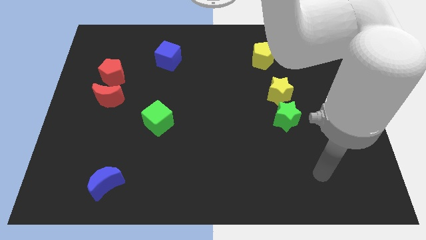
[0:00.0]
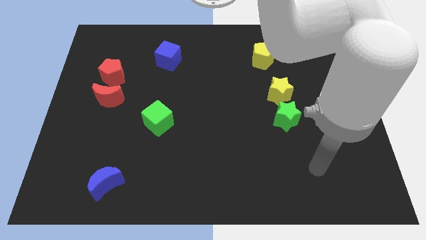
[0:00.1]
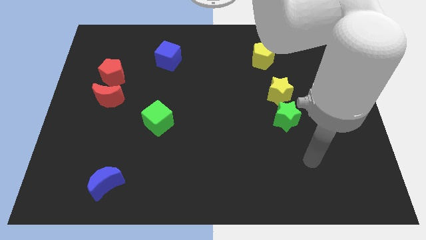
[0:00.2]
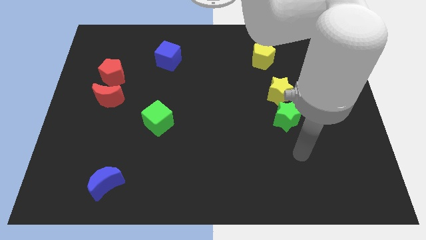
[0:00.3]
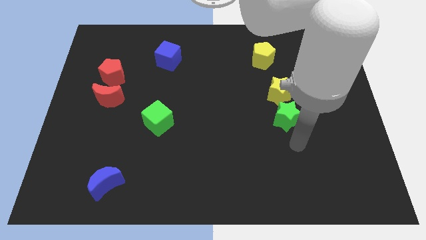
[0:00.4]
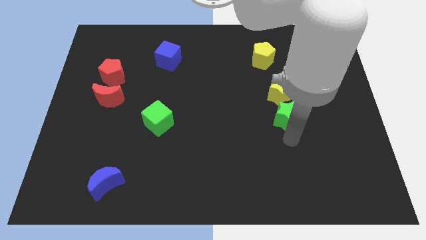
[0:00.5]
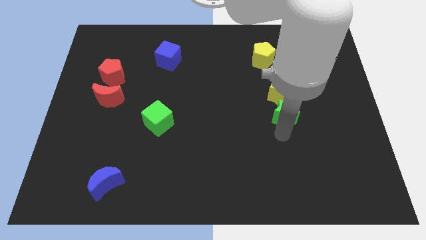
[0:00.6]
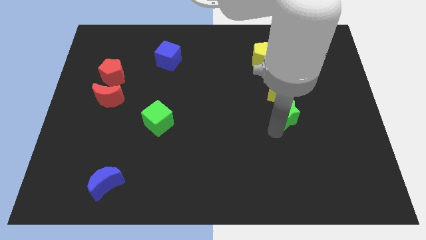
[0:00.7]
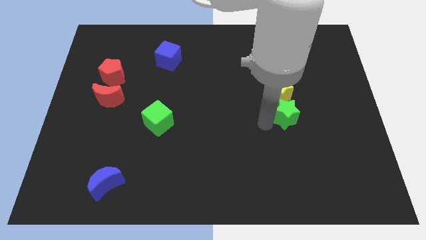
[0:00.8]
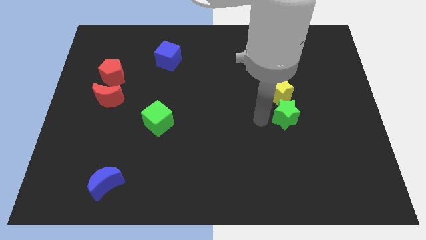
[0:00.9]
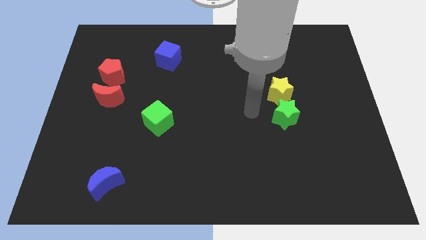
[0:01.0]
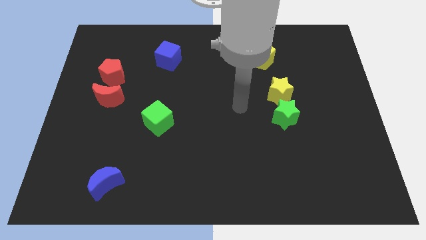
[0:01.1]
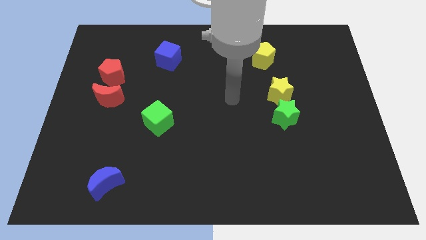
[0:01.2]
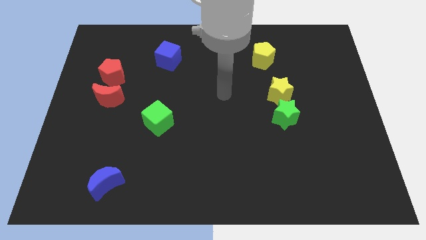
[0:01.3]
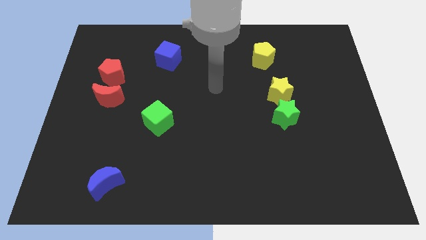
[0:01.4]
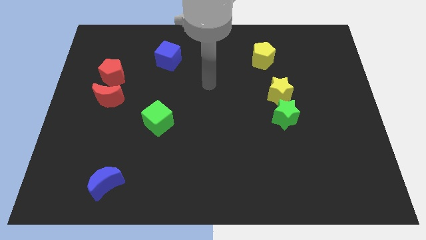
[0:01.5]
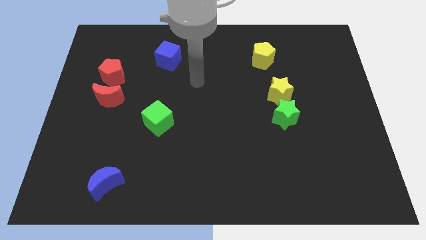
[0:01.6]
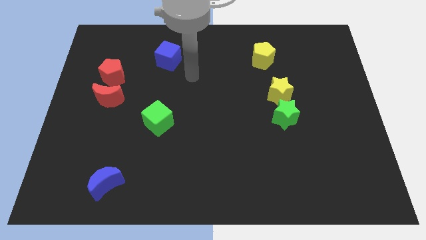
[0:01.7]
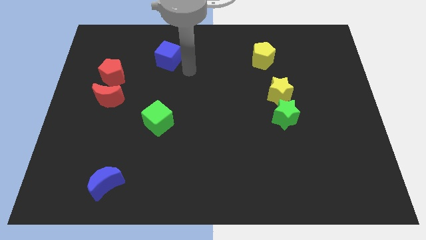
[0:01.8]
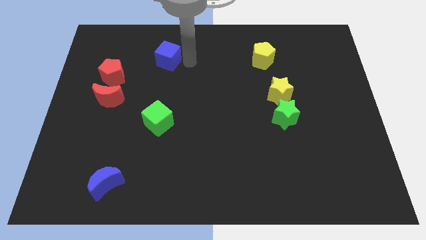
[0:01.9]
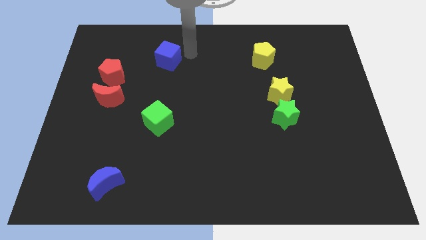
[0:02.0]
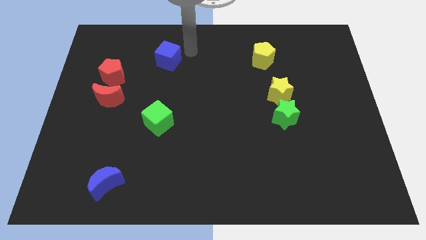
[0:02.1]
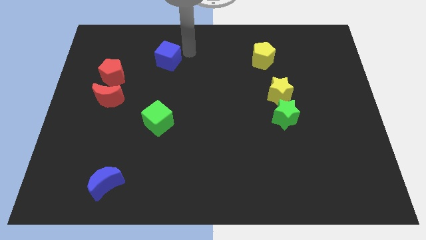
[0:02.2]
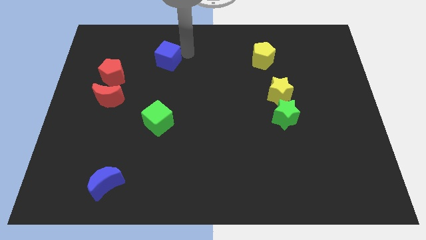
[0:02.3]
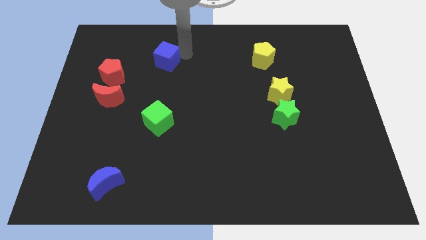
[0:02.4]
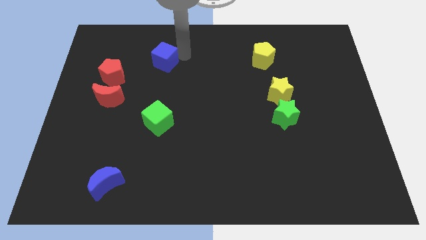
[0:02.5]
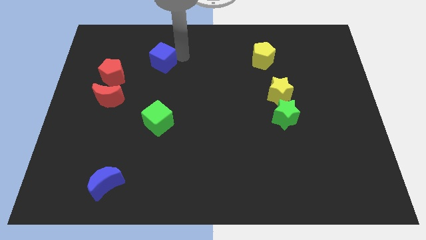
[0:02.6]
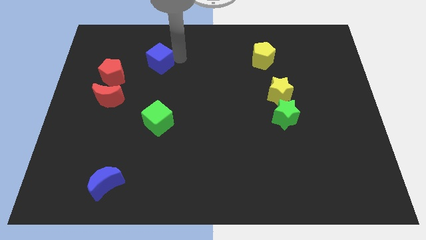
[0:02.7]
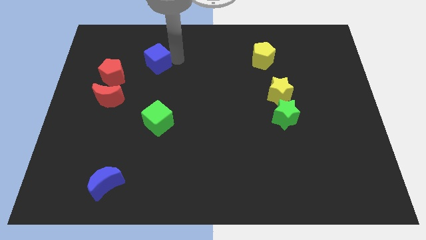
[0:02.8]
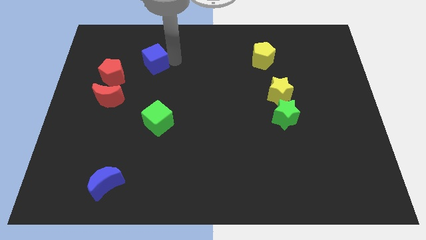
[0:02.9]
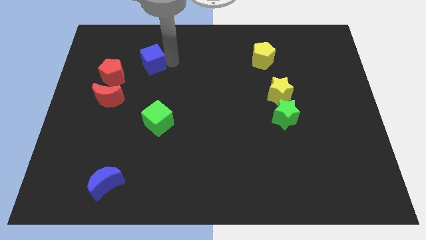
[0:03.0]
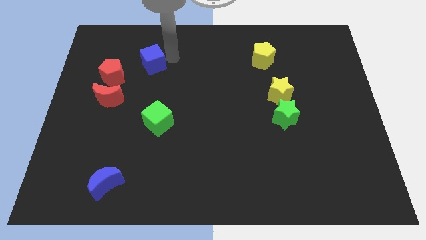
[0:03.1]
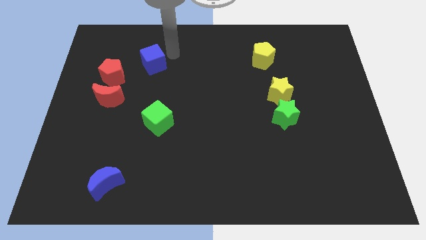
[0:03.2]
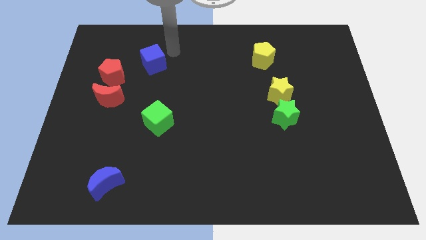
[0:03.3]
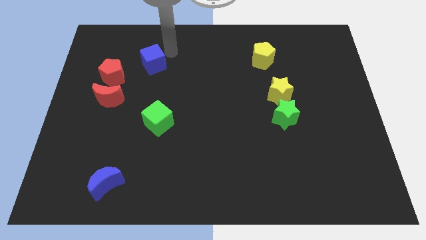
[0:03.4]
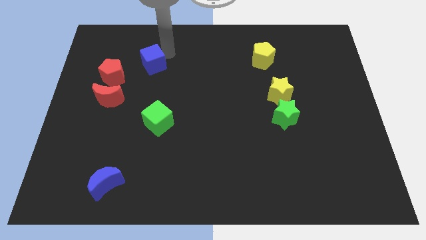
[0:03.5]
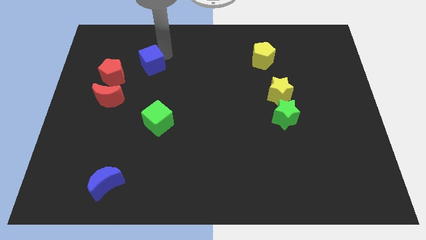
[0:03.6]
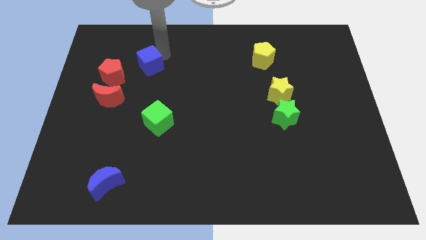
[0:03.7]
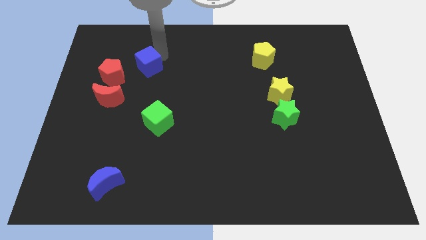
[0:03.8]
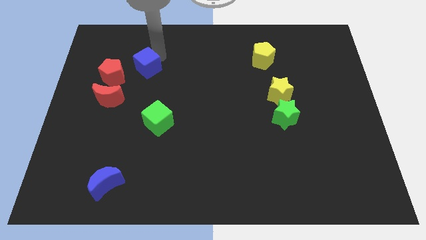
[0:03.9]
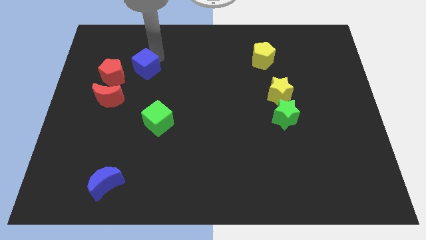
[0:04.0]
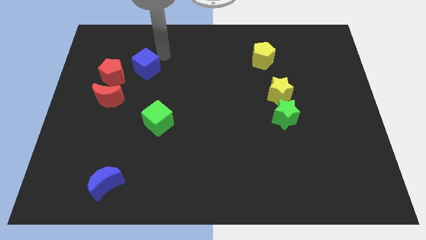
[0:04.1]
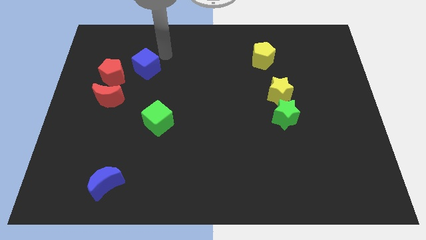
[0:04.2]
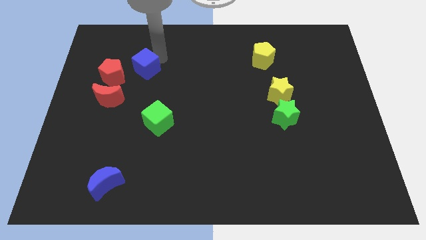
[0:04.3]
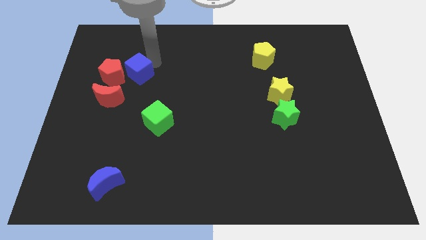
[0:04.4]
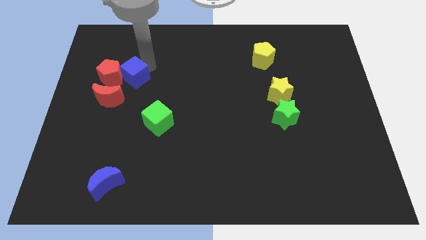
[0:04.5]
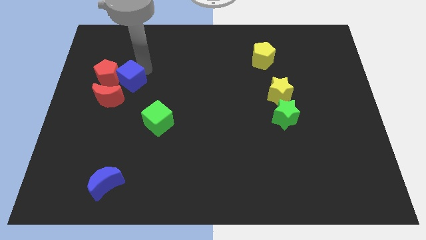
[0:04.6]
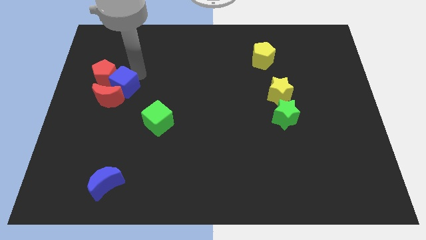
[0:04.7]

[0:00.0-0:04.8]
push the blue cube close to the red moon

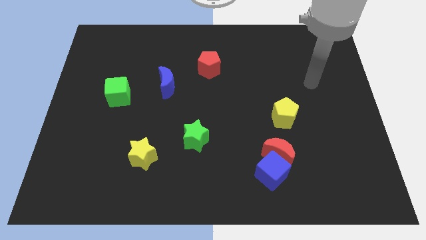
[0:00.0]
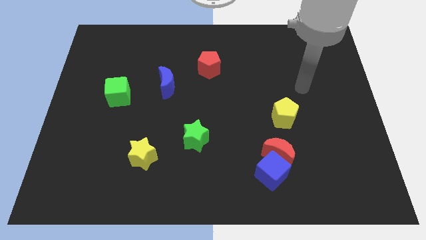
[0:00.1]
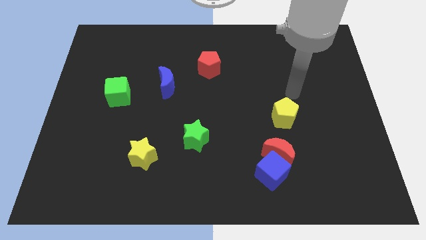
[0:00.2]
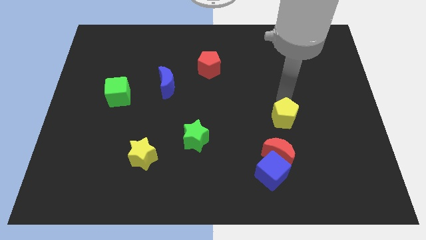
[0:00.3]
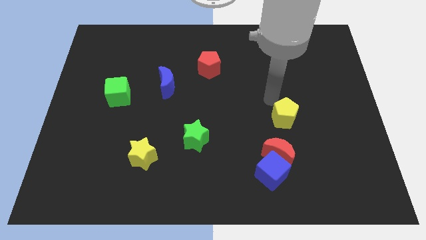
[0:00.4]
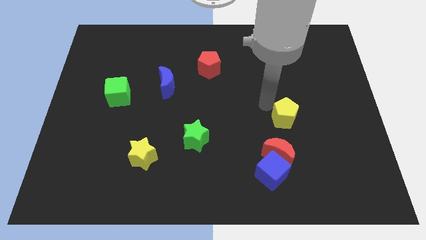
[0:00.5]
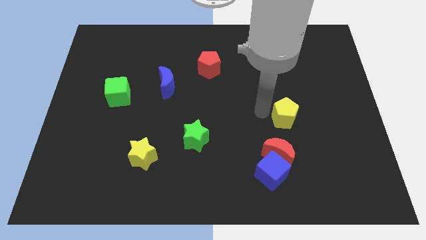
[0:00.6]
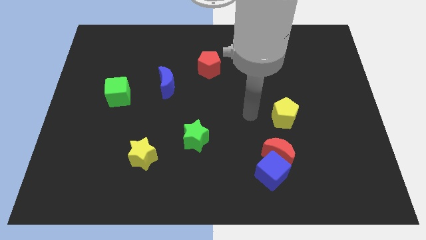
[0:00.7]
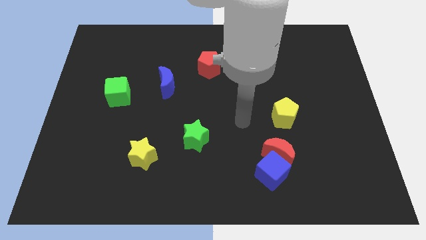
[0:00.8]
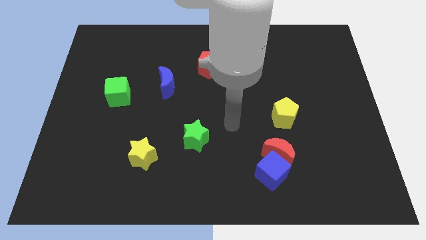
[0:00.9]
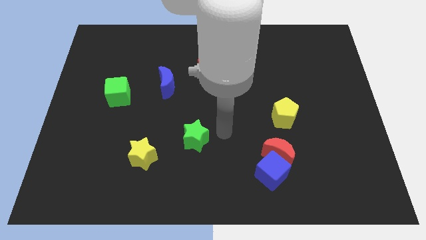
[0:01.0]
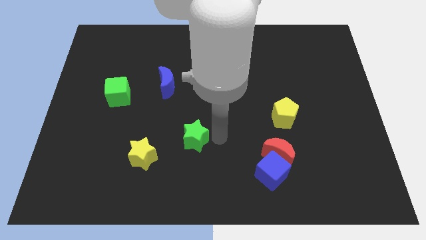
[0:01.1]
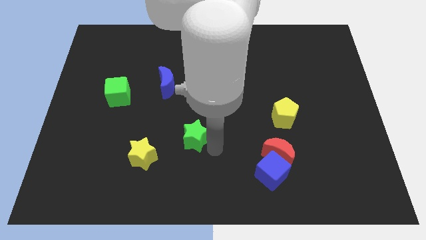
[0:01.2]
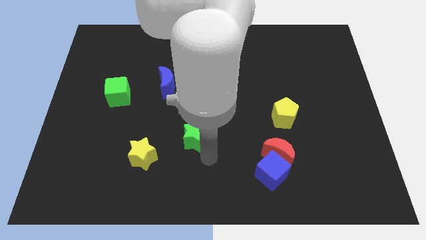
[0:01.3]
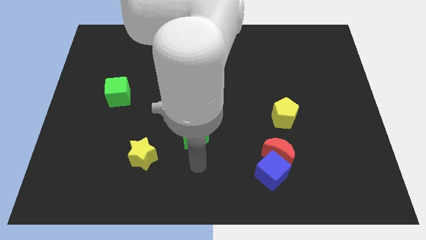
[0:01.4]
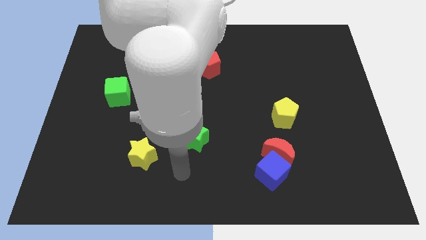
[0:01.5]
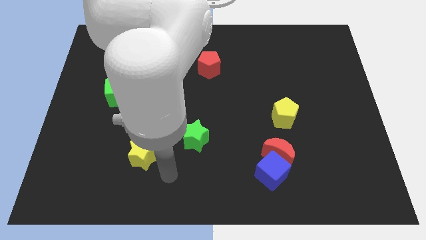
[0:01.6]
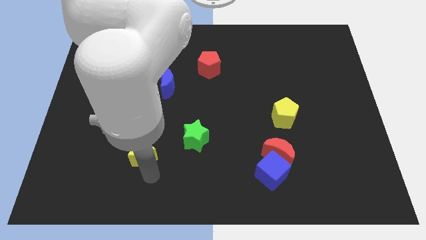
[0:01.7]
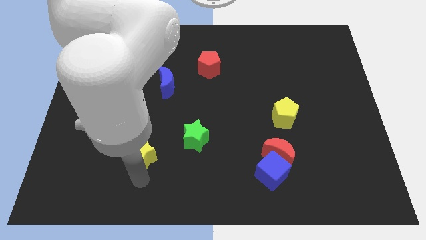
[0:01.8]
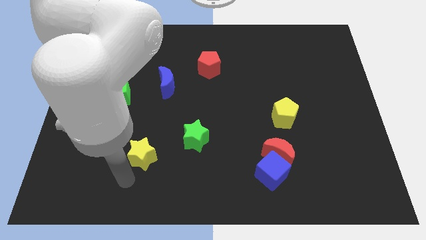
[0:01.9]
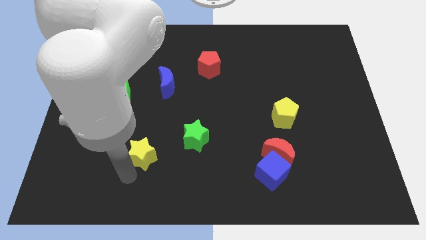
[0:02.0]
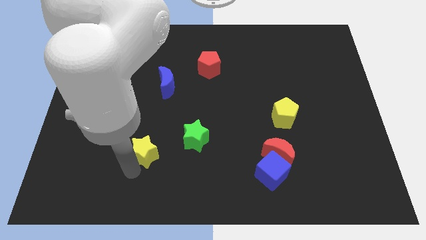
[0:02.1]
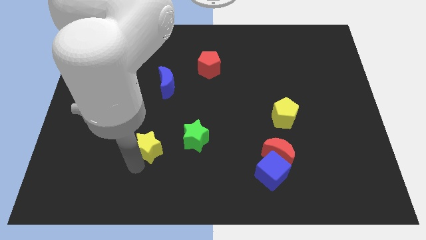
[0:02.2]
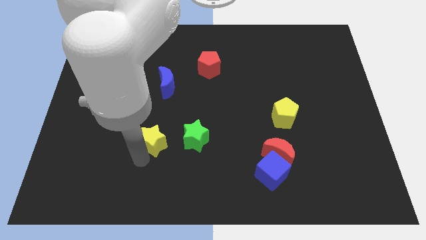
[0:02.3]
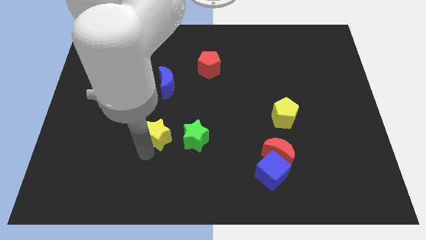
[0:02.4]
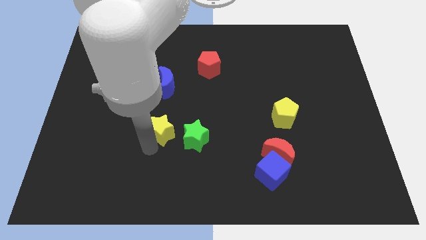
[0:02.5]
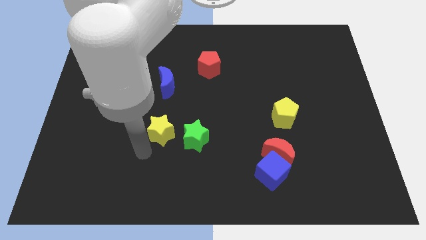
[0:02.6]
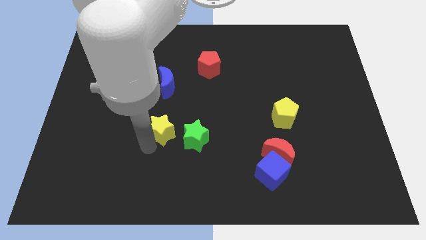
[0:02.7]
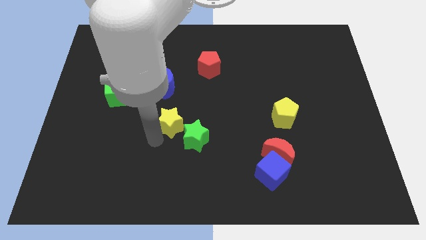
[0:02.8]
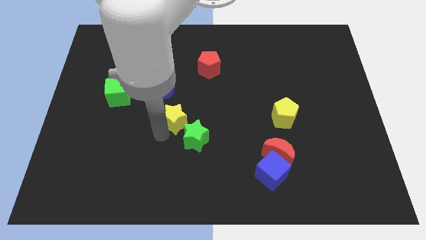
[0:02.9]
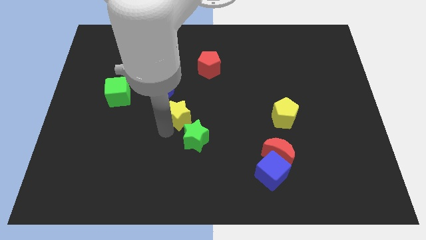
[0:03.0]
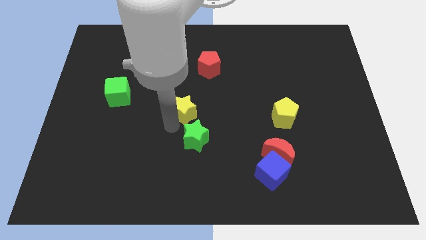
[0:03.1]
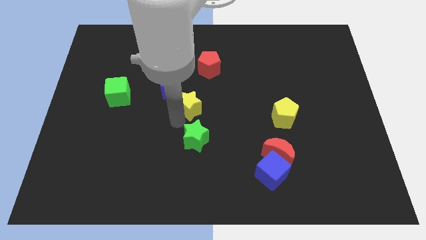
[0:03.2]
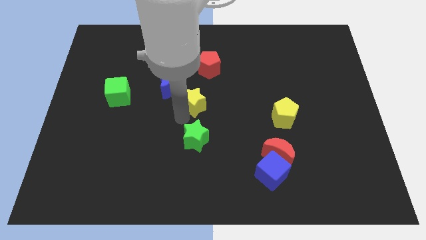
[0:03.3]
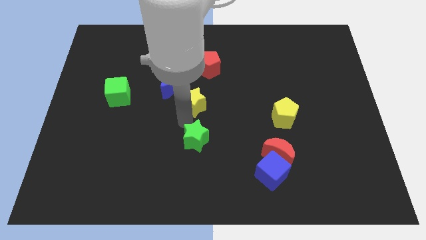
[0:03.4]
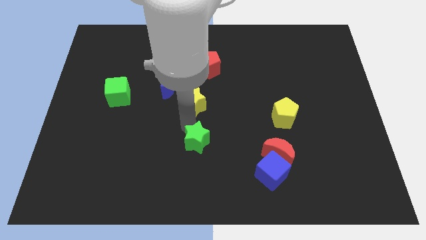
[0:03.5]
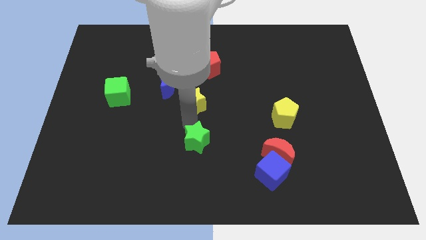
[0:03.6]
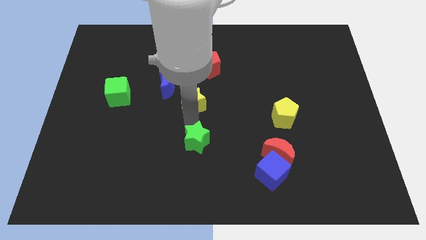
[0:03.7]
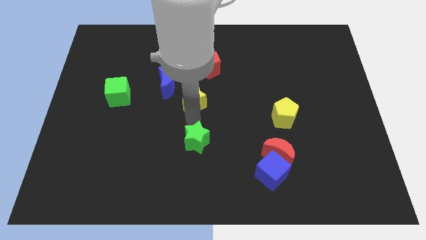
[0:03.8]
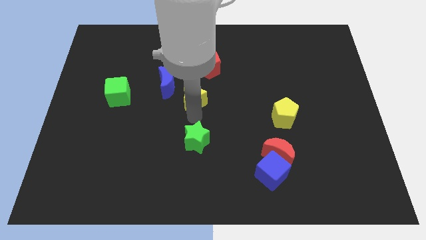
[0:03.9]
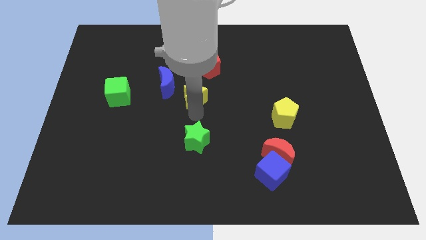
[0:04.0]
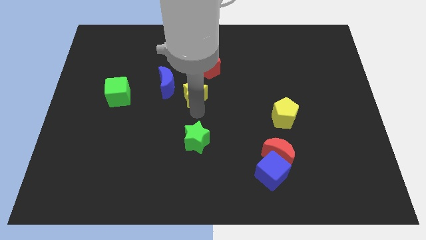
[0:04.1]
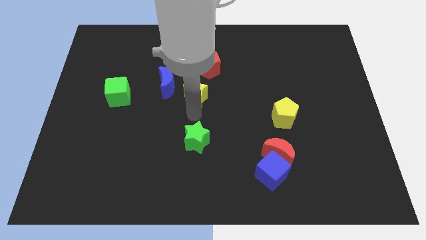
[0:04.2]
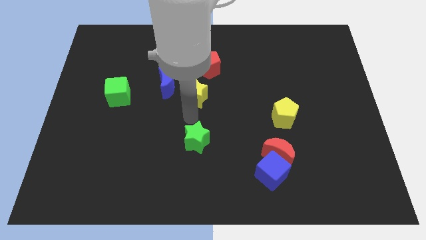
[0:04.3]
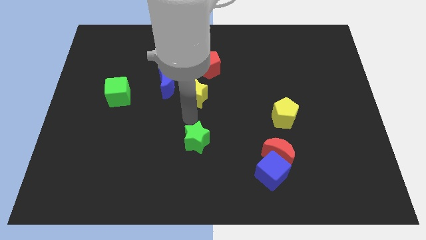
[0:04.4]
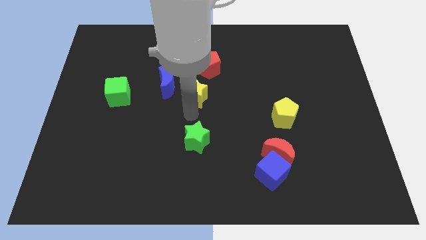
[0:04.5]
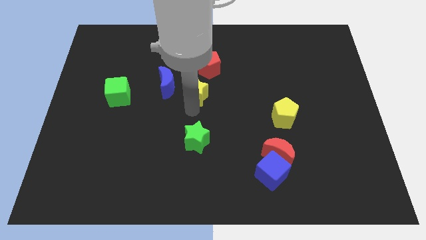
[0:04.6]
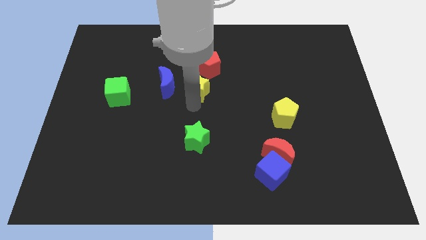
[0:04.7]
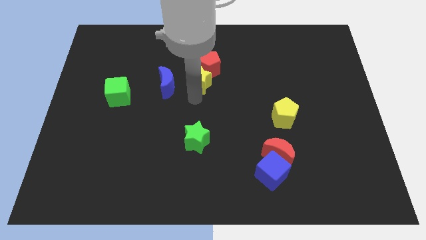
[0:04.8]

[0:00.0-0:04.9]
put the yellow star towards the red pentagon
